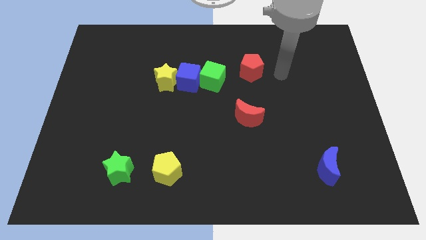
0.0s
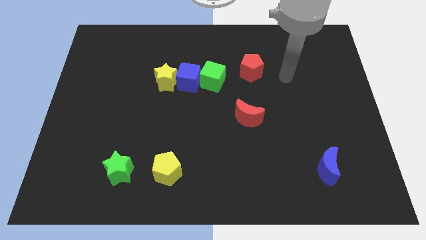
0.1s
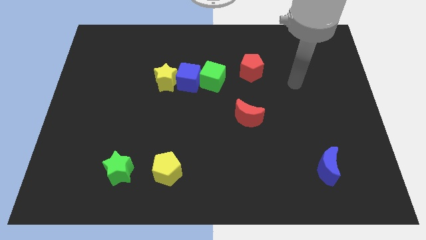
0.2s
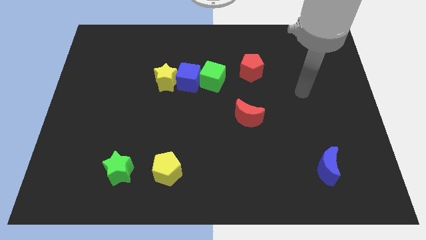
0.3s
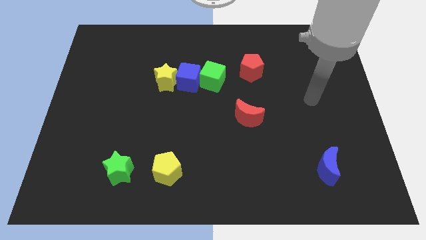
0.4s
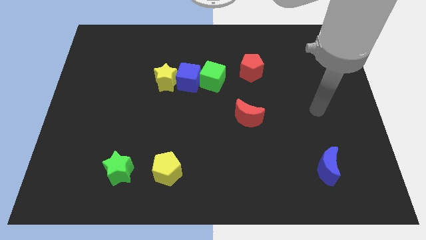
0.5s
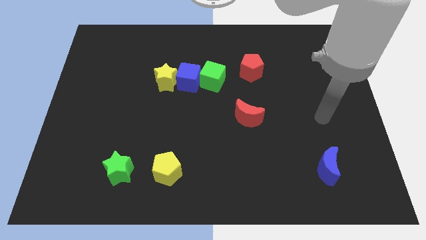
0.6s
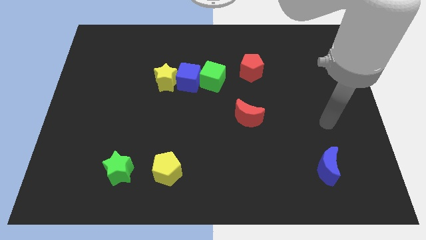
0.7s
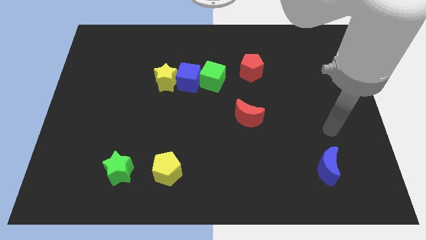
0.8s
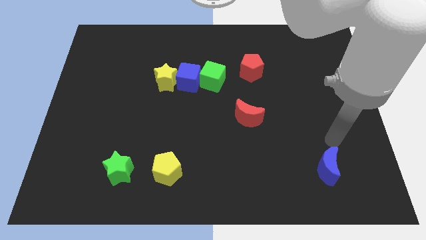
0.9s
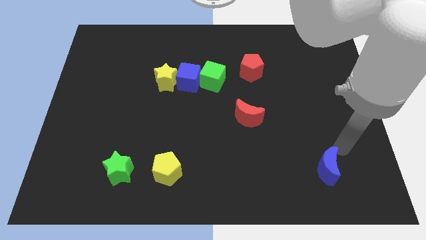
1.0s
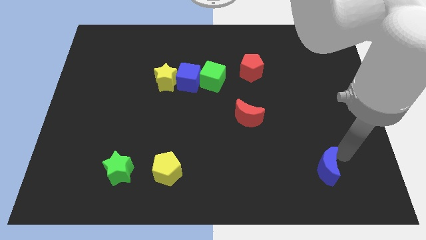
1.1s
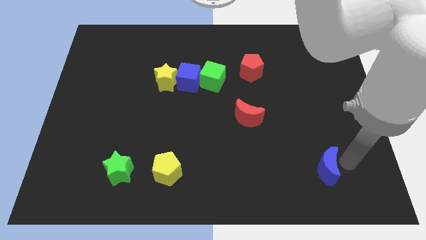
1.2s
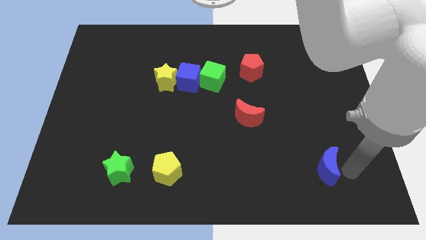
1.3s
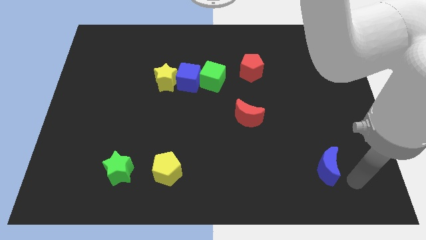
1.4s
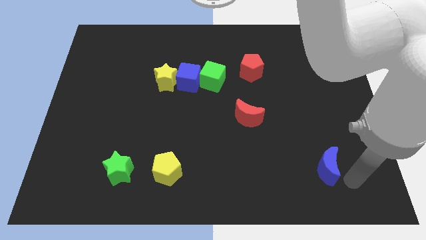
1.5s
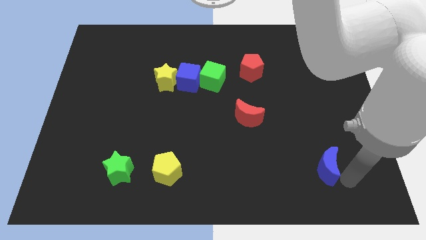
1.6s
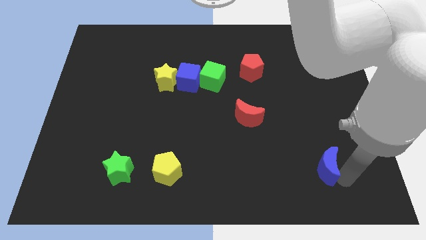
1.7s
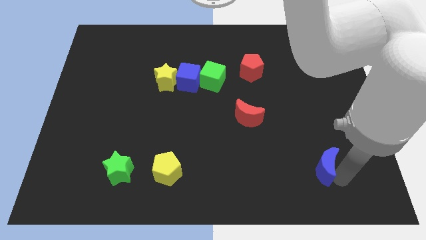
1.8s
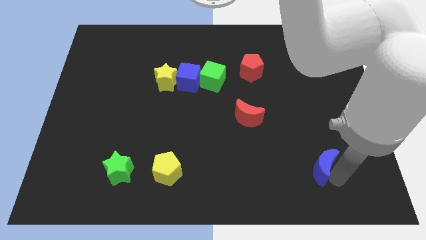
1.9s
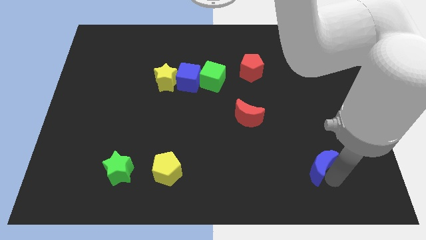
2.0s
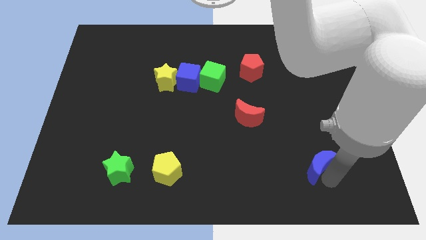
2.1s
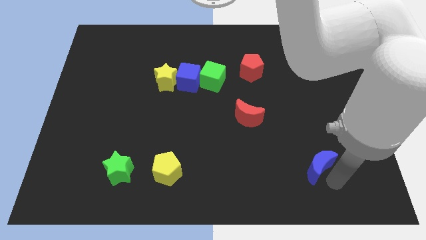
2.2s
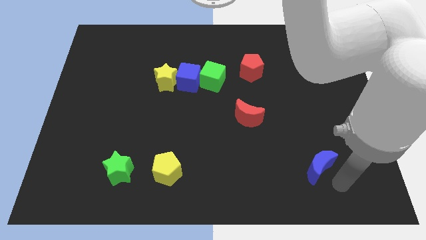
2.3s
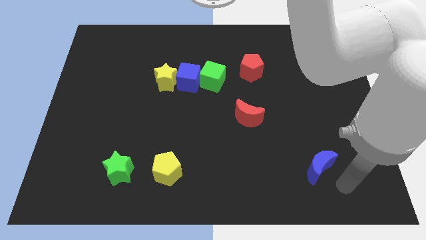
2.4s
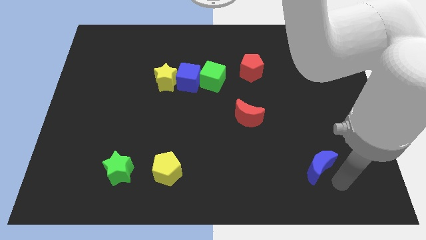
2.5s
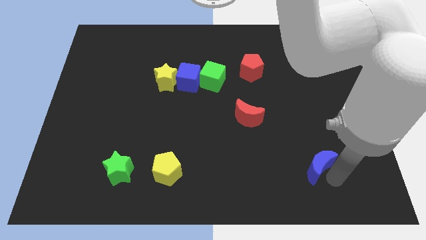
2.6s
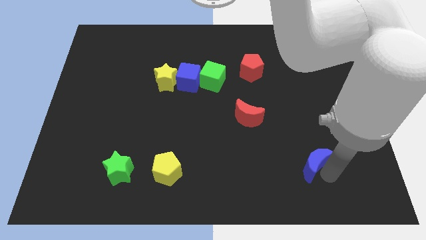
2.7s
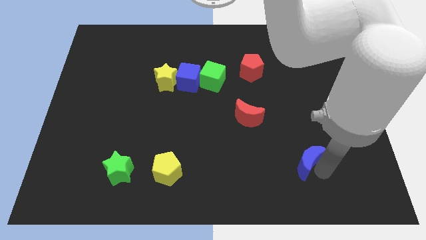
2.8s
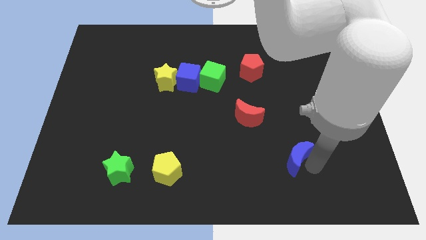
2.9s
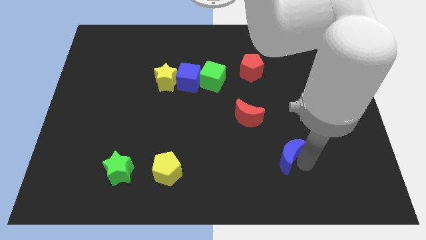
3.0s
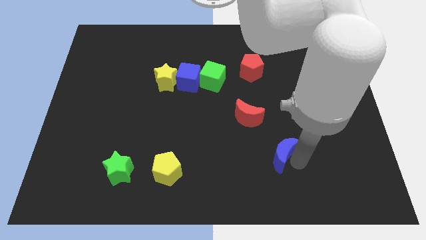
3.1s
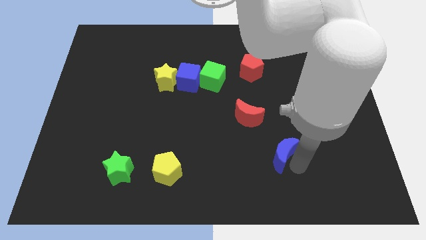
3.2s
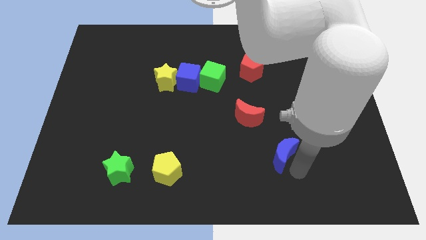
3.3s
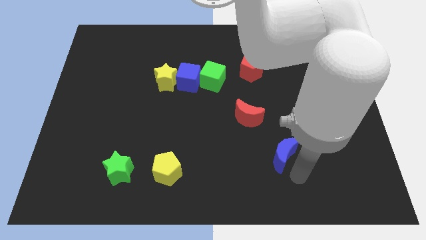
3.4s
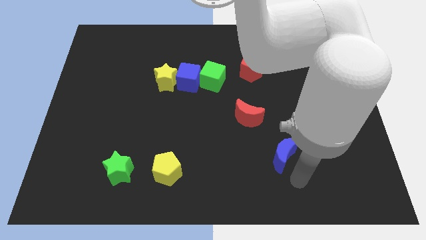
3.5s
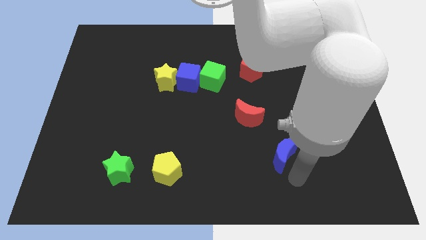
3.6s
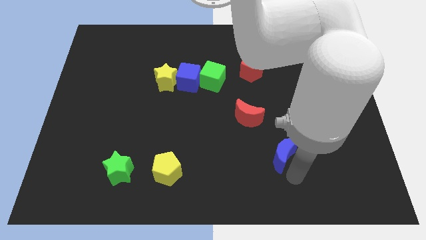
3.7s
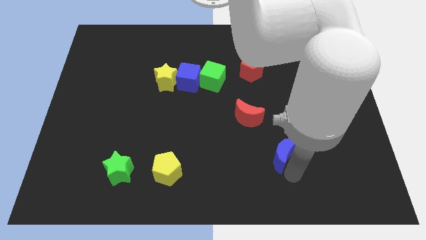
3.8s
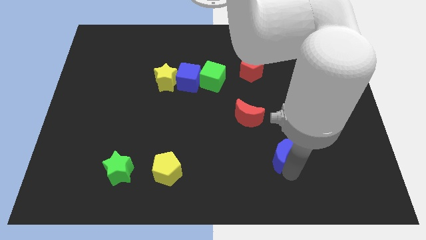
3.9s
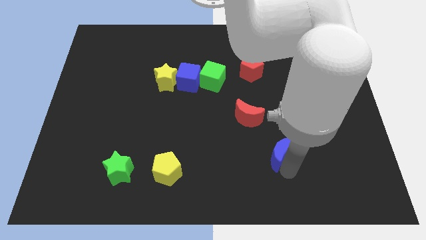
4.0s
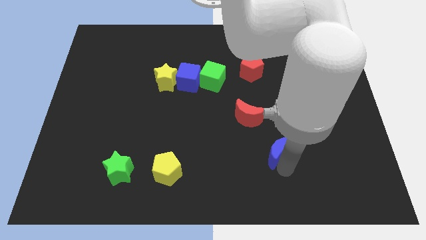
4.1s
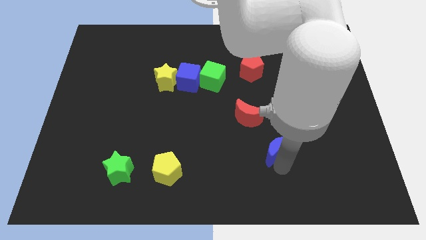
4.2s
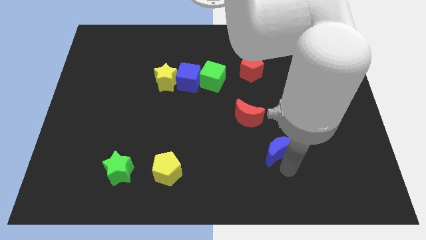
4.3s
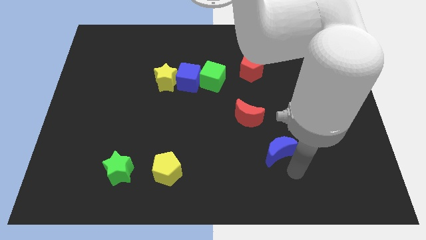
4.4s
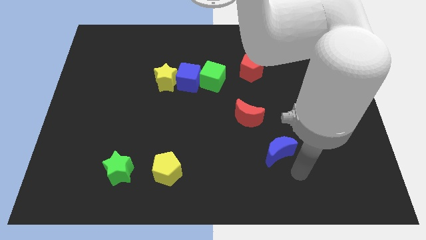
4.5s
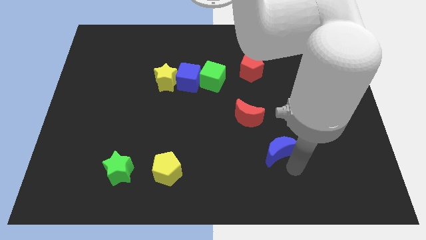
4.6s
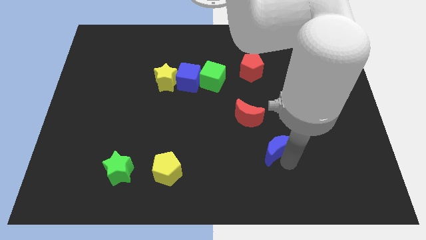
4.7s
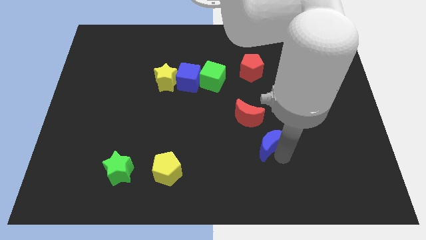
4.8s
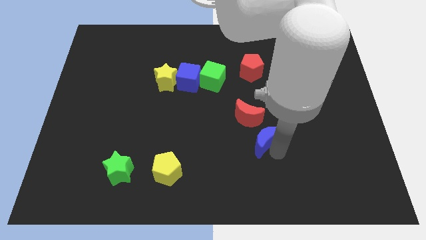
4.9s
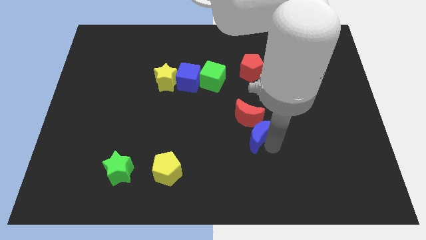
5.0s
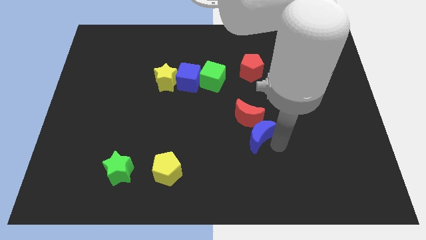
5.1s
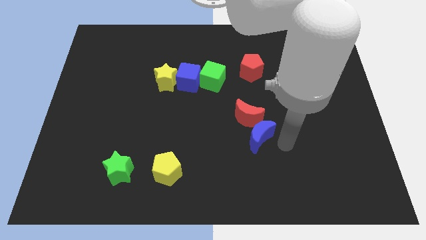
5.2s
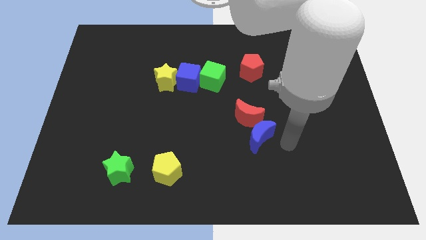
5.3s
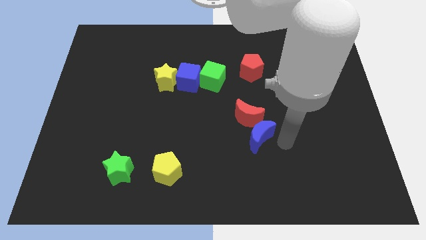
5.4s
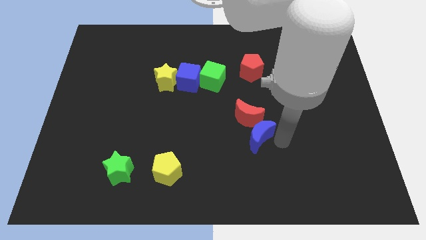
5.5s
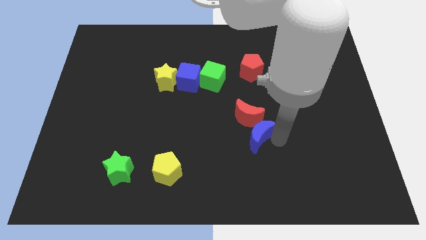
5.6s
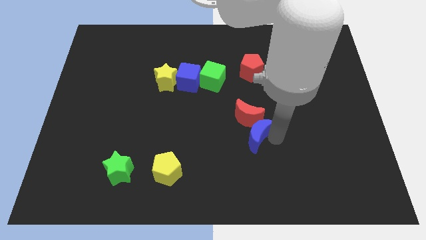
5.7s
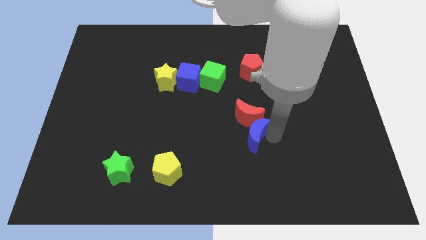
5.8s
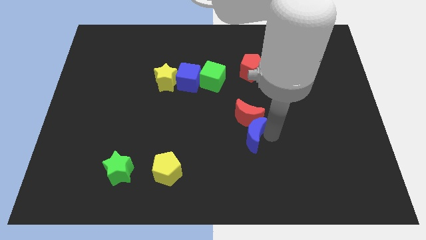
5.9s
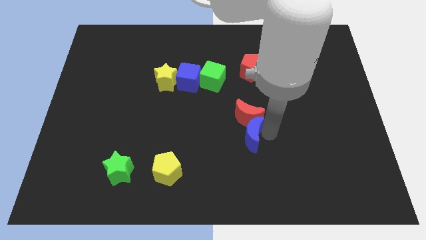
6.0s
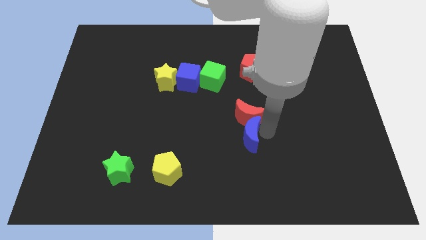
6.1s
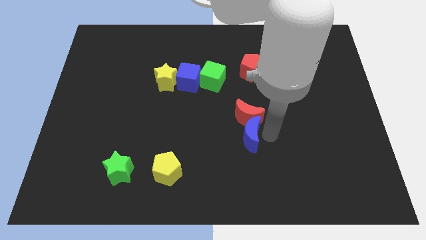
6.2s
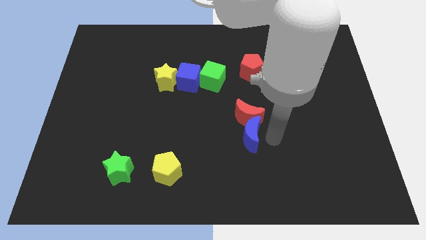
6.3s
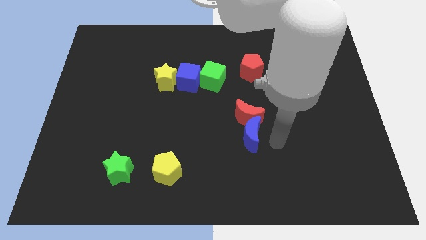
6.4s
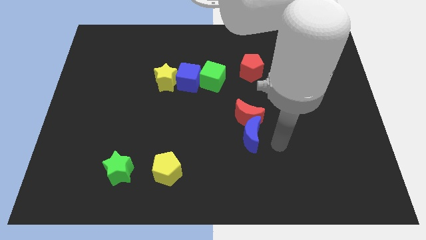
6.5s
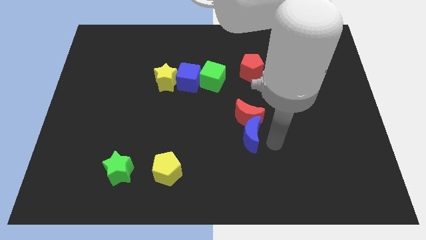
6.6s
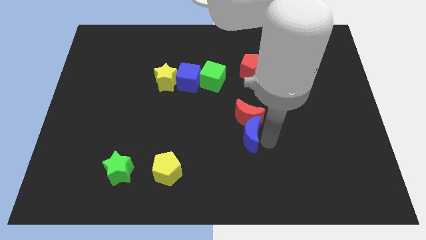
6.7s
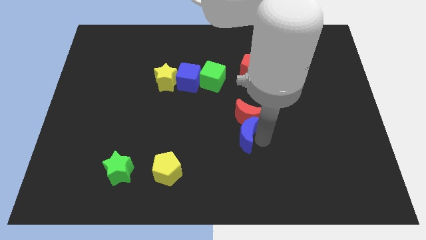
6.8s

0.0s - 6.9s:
slide the blue moon to the center
